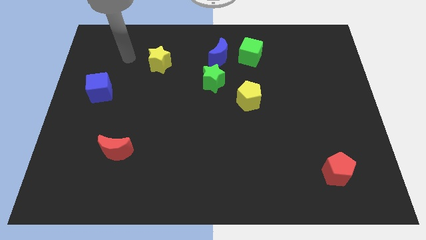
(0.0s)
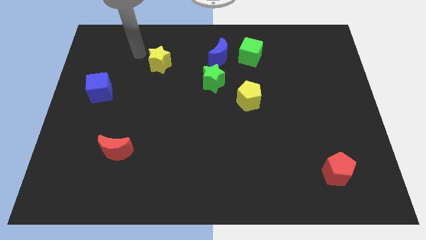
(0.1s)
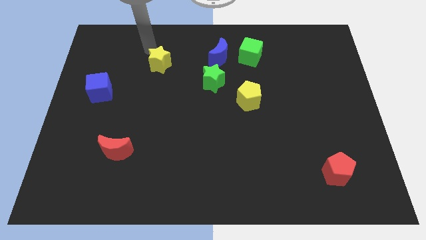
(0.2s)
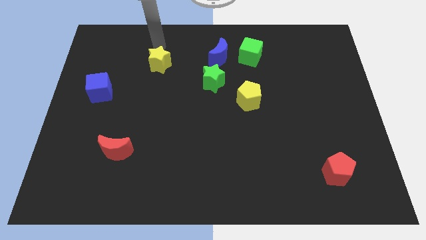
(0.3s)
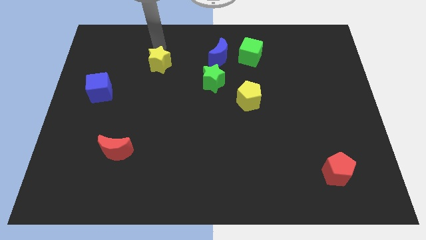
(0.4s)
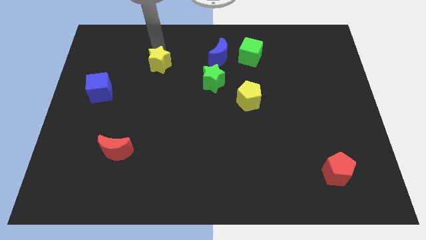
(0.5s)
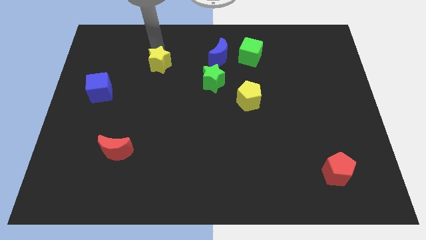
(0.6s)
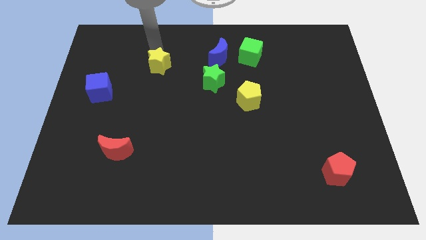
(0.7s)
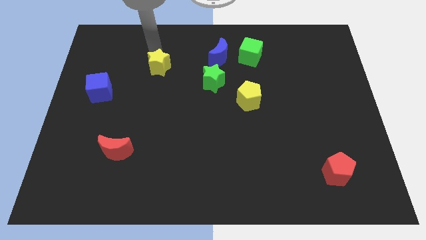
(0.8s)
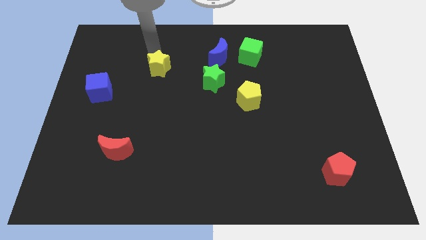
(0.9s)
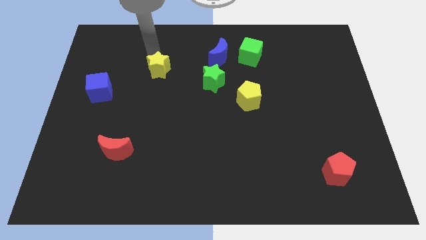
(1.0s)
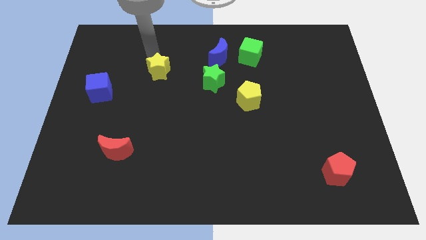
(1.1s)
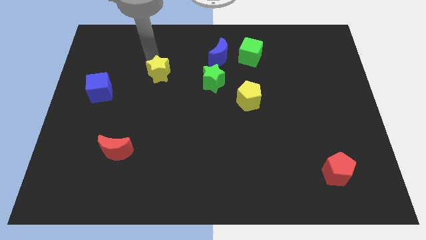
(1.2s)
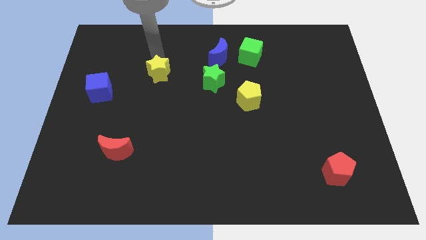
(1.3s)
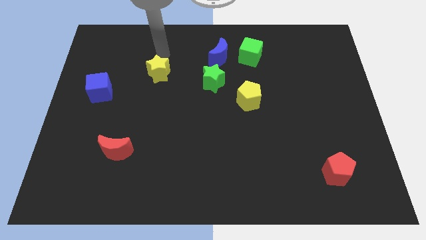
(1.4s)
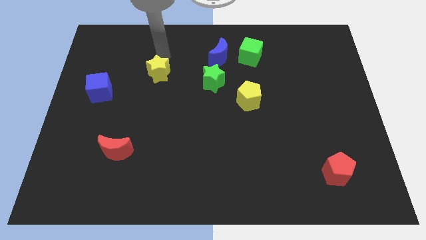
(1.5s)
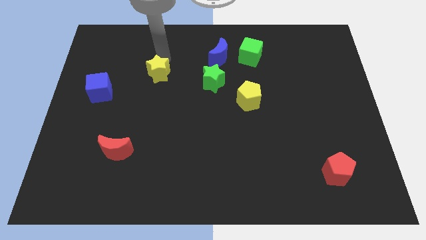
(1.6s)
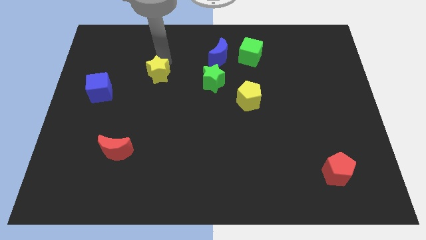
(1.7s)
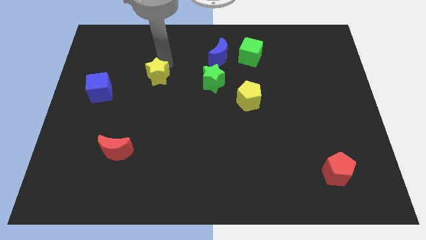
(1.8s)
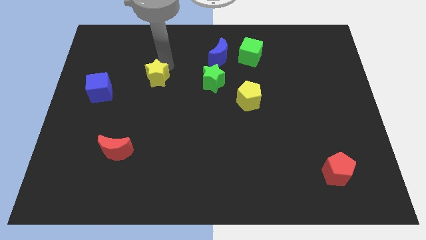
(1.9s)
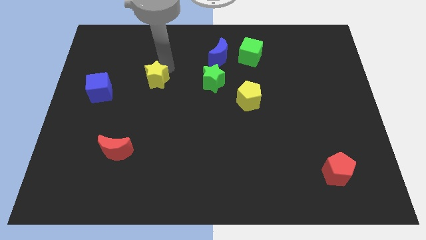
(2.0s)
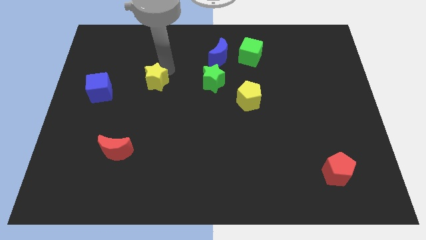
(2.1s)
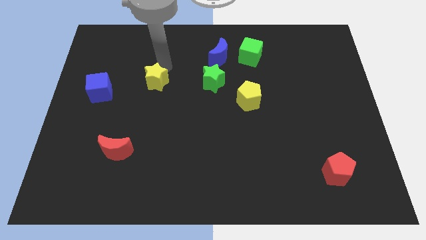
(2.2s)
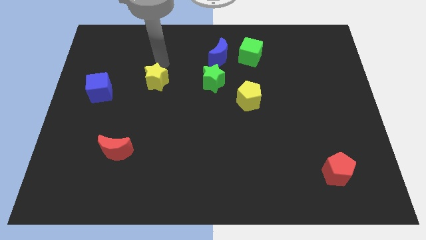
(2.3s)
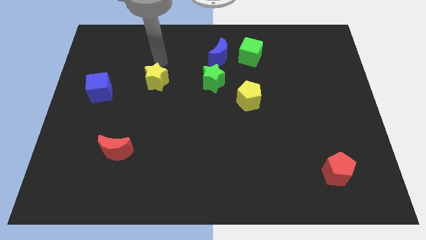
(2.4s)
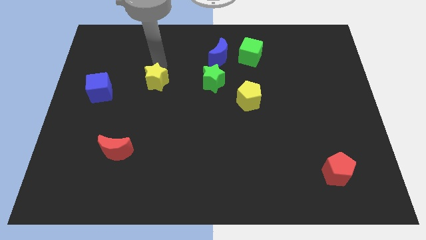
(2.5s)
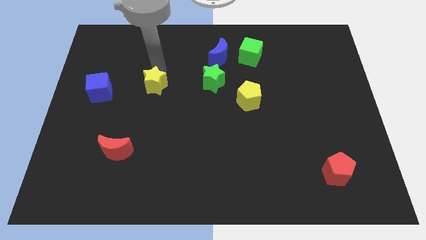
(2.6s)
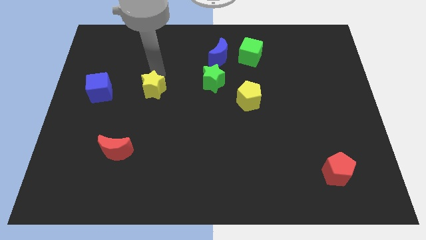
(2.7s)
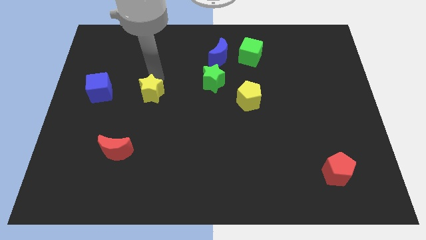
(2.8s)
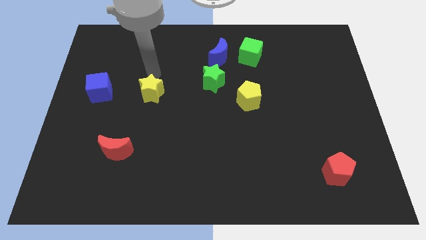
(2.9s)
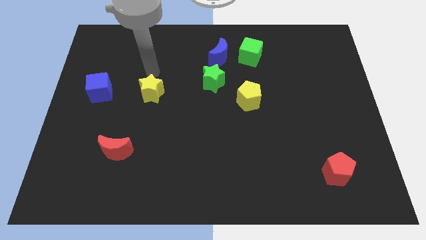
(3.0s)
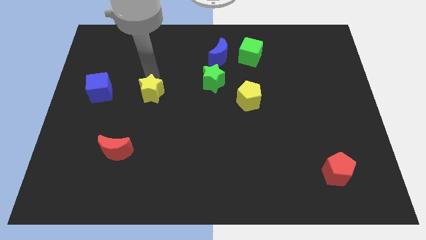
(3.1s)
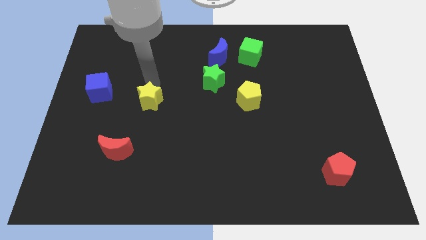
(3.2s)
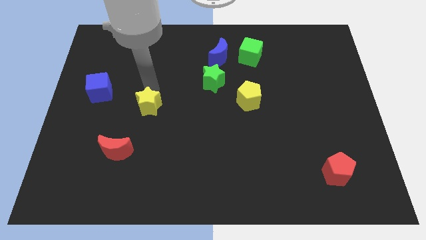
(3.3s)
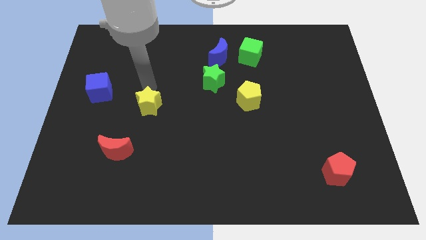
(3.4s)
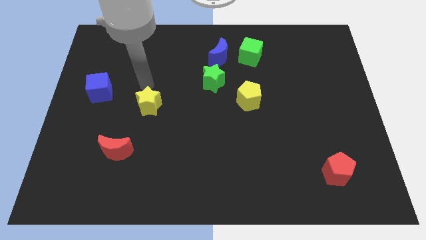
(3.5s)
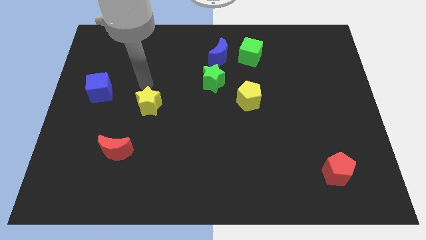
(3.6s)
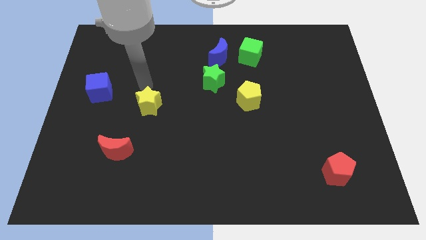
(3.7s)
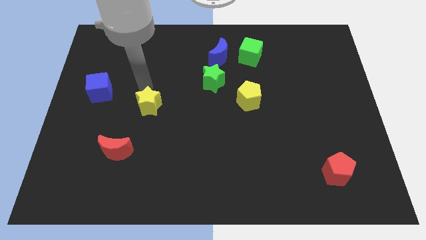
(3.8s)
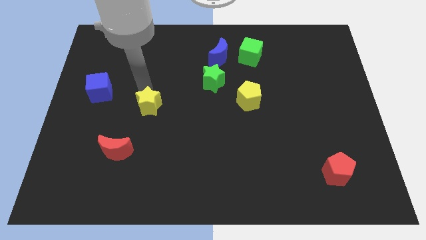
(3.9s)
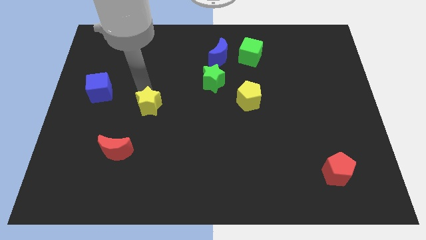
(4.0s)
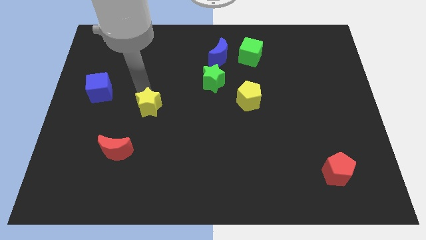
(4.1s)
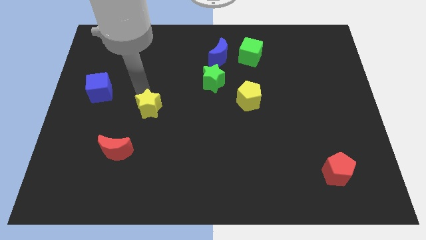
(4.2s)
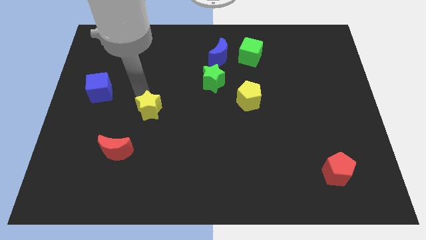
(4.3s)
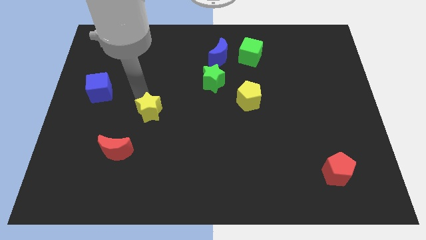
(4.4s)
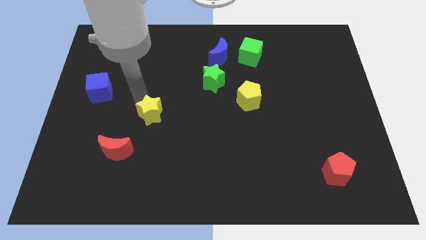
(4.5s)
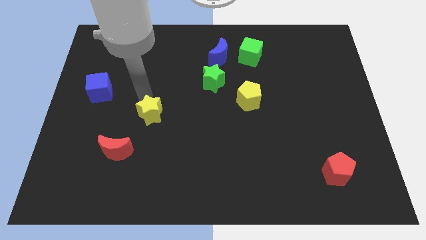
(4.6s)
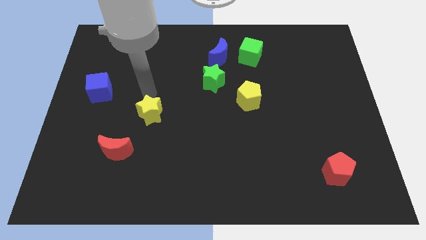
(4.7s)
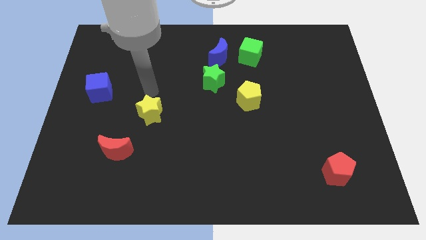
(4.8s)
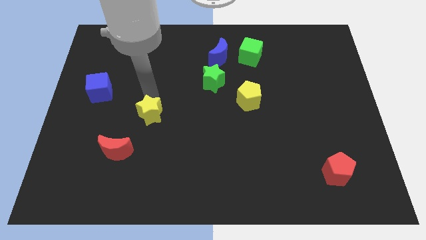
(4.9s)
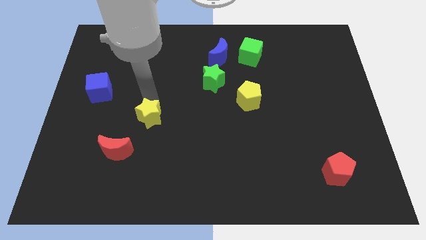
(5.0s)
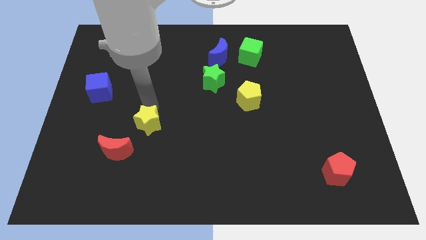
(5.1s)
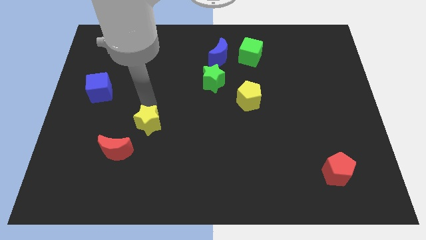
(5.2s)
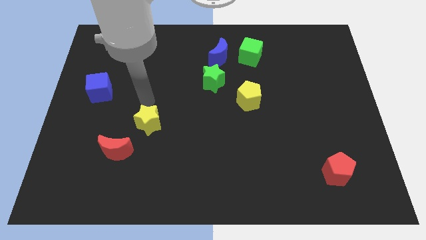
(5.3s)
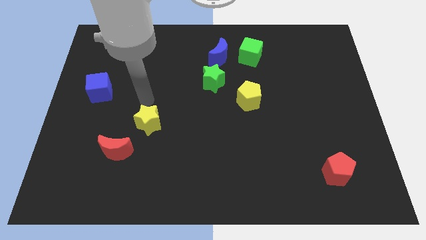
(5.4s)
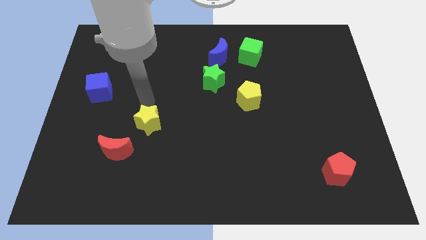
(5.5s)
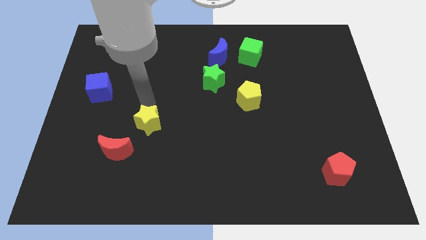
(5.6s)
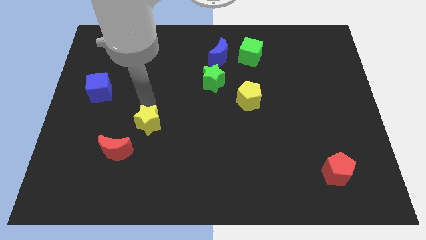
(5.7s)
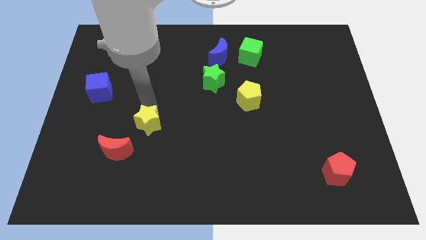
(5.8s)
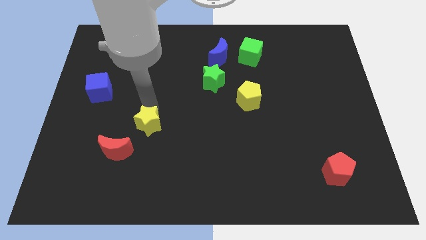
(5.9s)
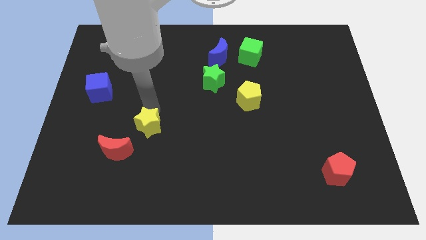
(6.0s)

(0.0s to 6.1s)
slide the yellow star down

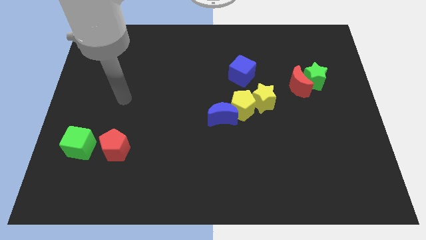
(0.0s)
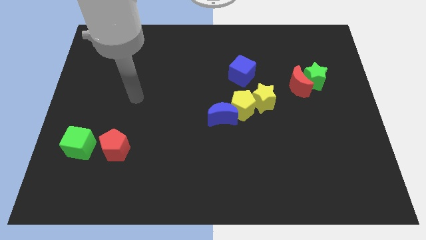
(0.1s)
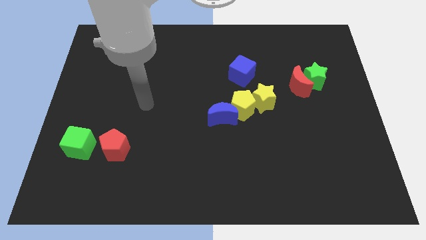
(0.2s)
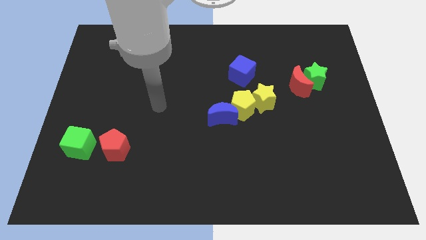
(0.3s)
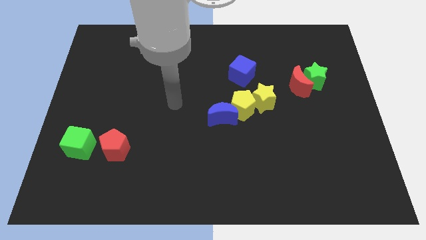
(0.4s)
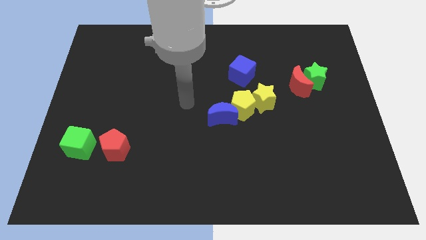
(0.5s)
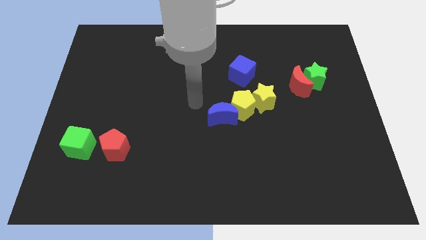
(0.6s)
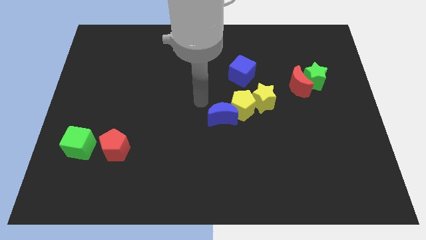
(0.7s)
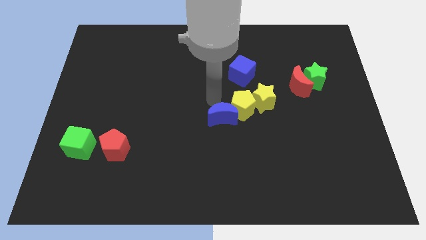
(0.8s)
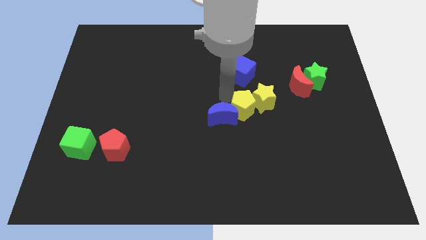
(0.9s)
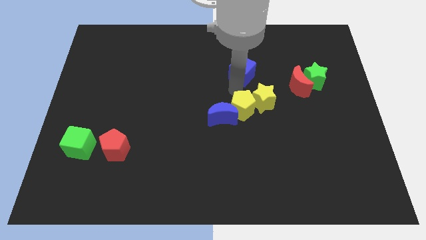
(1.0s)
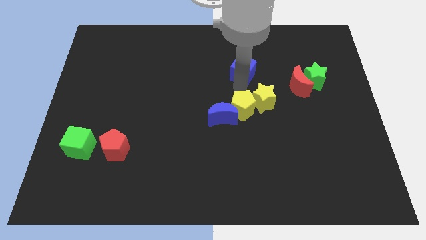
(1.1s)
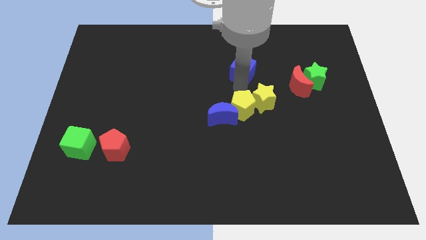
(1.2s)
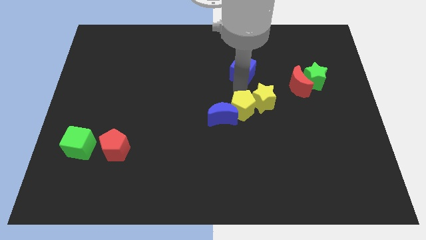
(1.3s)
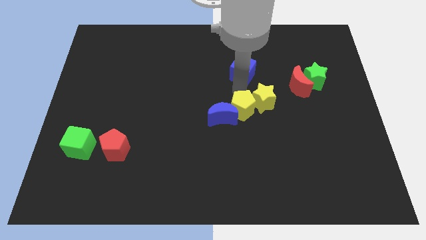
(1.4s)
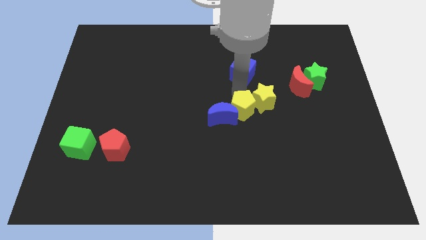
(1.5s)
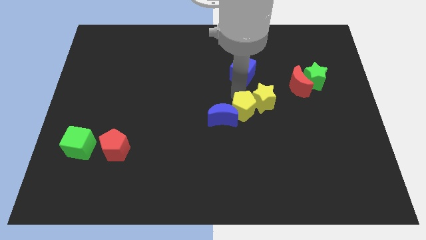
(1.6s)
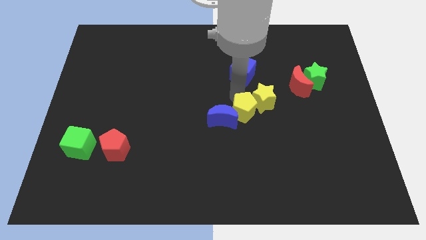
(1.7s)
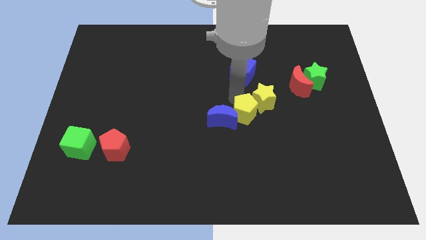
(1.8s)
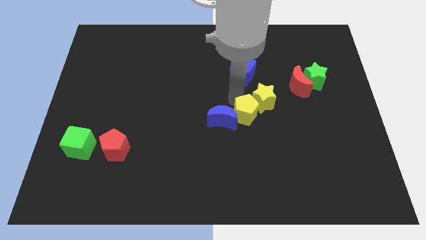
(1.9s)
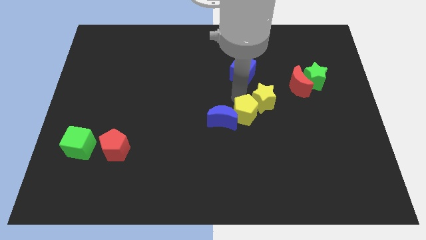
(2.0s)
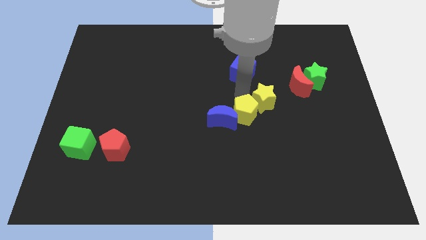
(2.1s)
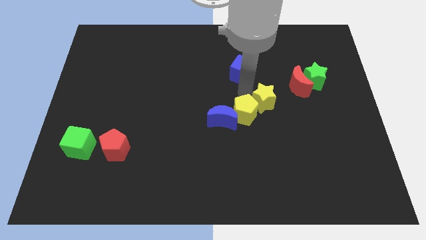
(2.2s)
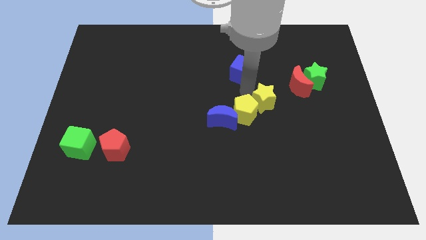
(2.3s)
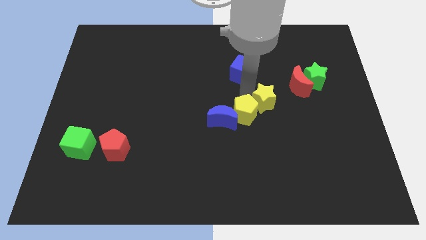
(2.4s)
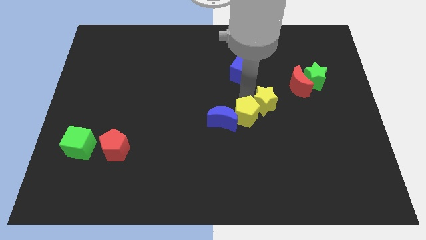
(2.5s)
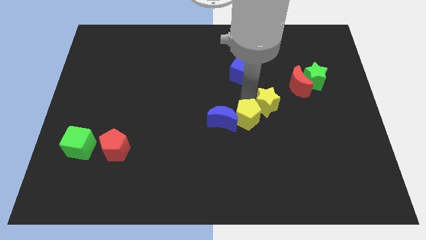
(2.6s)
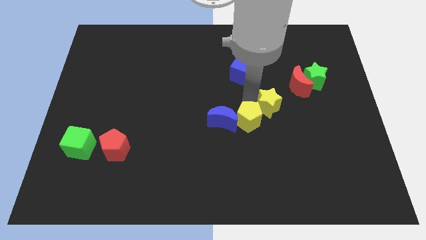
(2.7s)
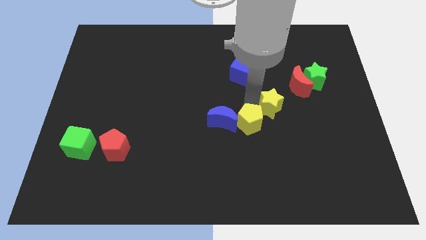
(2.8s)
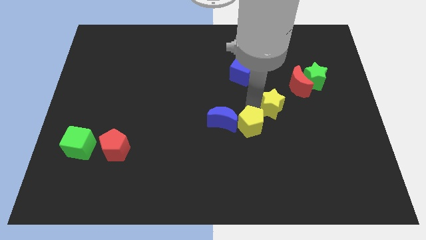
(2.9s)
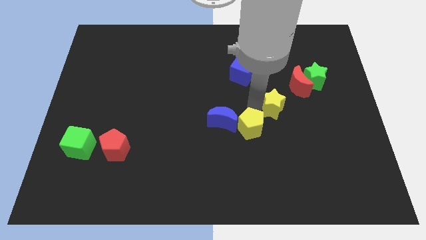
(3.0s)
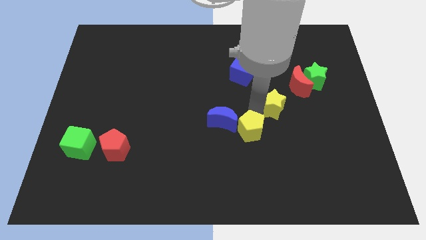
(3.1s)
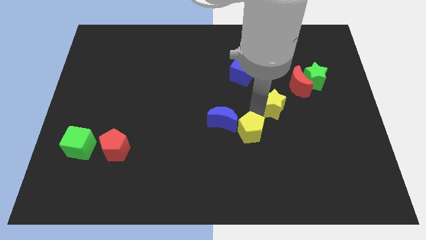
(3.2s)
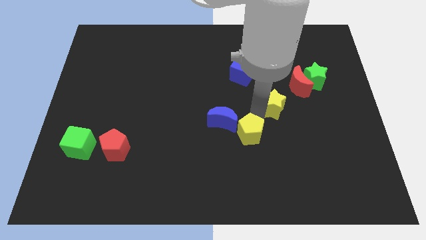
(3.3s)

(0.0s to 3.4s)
slightly push the yellow pentagon down
